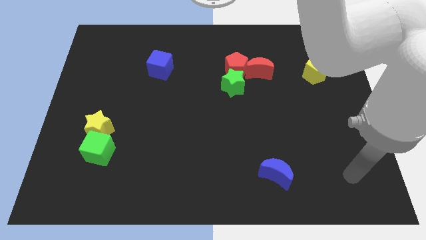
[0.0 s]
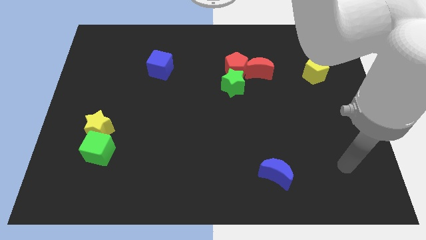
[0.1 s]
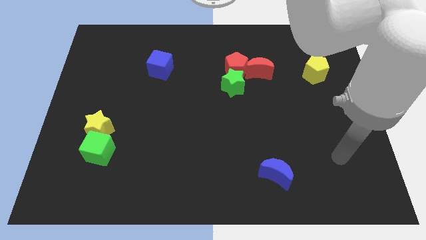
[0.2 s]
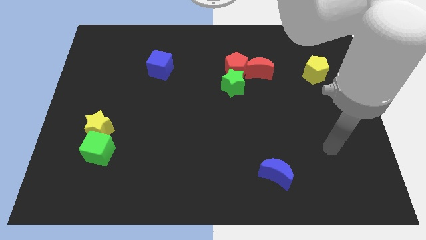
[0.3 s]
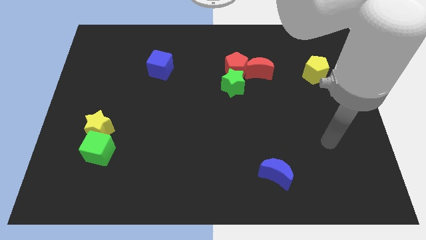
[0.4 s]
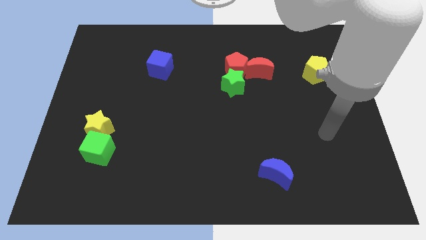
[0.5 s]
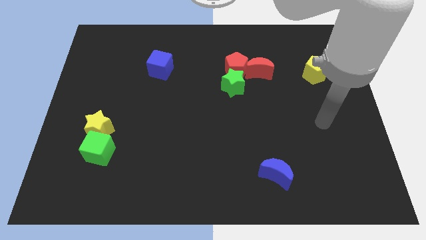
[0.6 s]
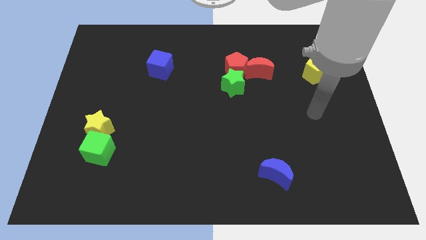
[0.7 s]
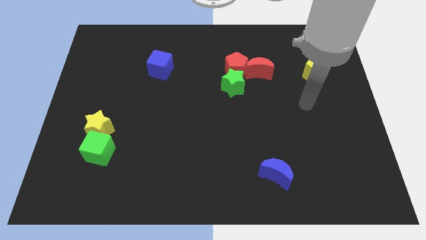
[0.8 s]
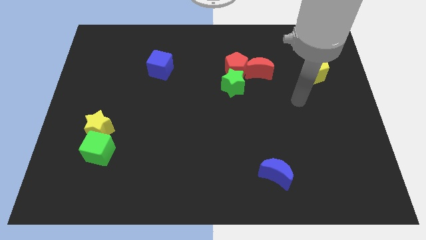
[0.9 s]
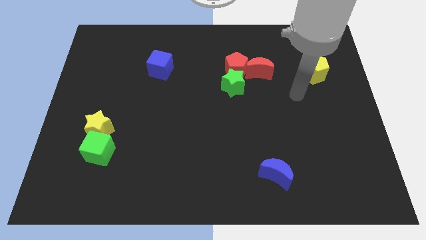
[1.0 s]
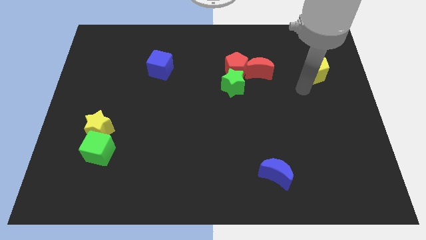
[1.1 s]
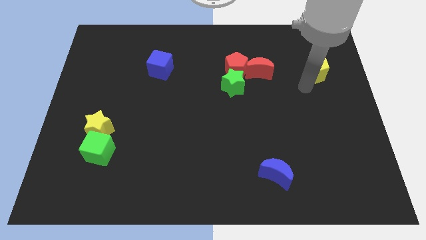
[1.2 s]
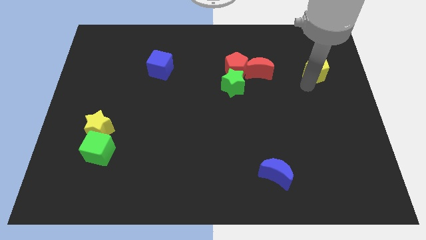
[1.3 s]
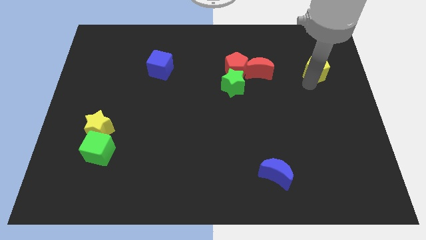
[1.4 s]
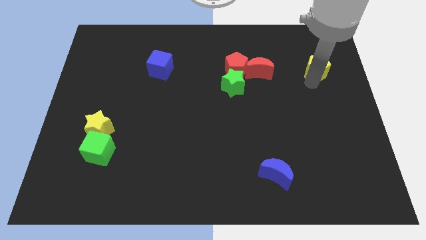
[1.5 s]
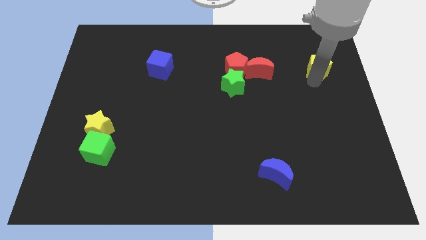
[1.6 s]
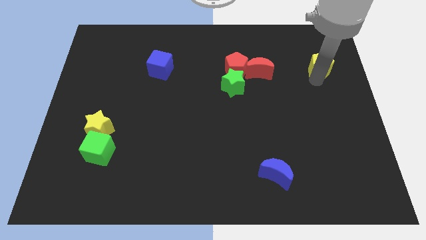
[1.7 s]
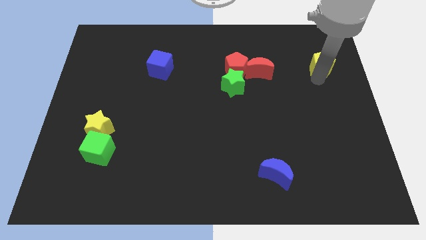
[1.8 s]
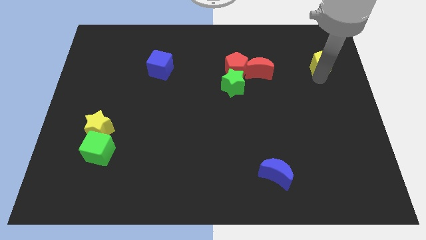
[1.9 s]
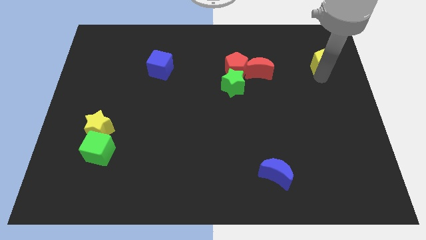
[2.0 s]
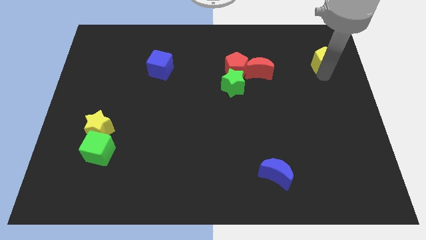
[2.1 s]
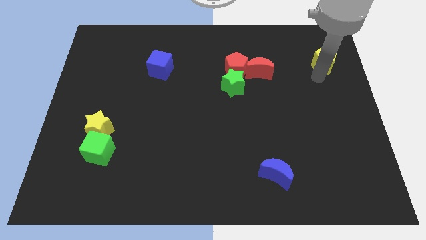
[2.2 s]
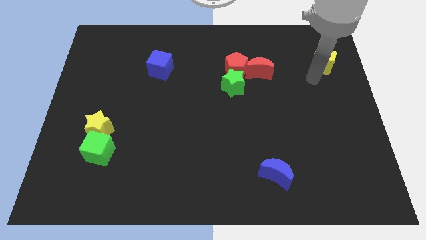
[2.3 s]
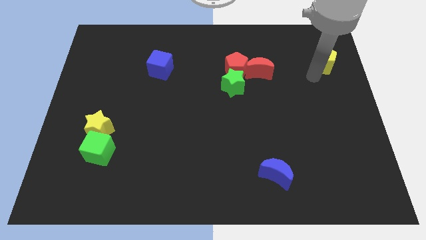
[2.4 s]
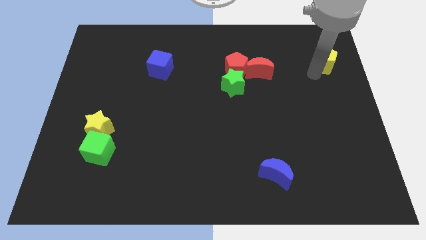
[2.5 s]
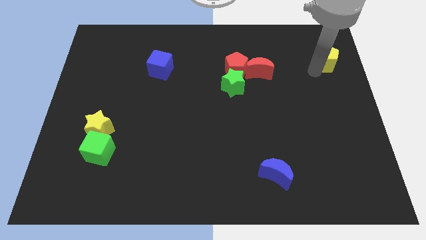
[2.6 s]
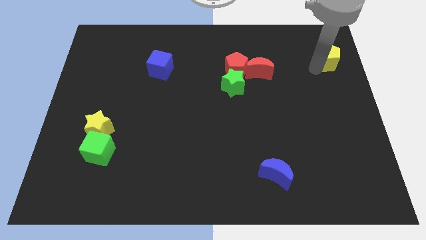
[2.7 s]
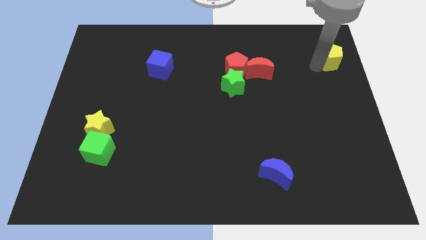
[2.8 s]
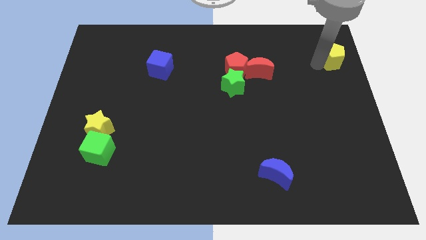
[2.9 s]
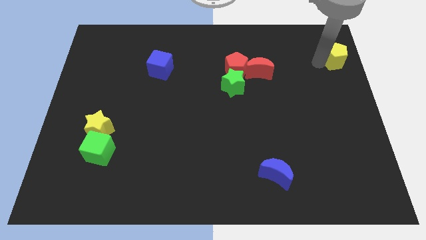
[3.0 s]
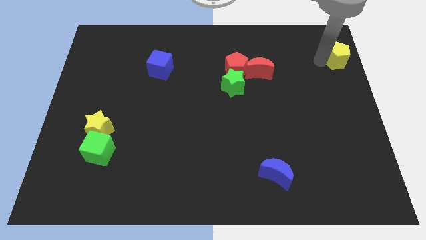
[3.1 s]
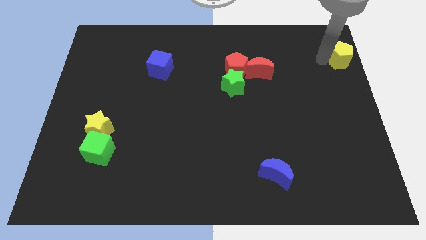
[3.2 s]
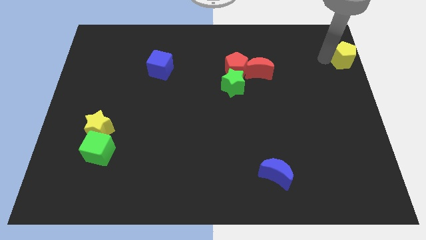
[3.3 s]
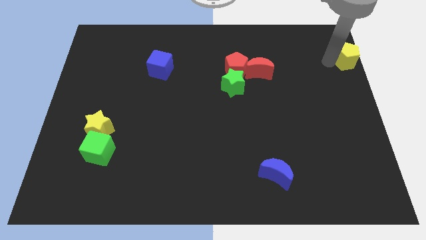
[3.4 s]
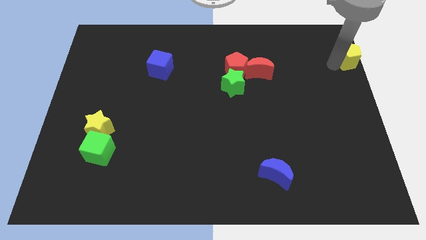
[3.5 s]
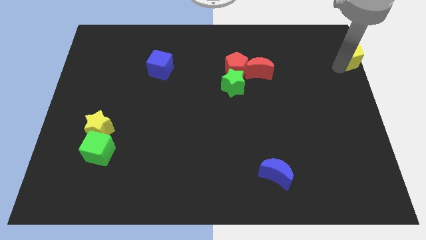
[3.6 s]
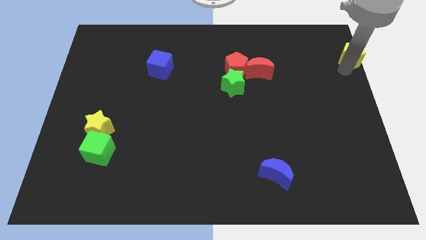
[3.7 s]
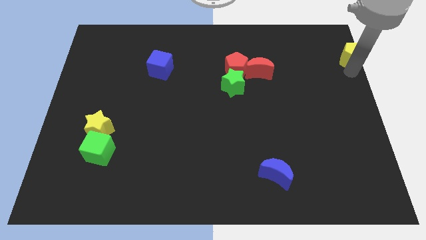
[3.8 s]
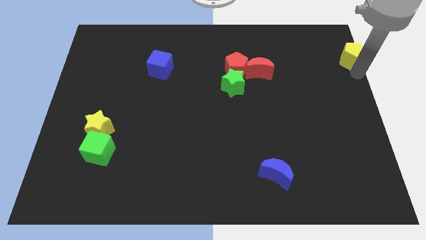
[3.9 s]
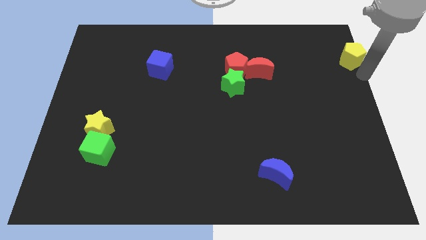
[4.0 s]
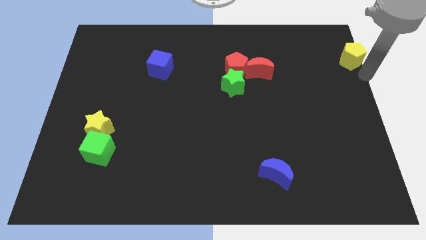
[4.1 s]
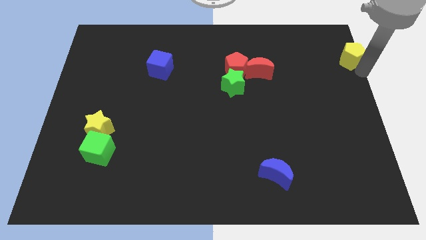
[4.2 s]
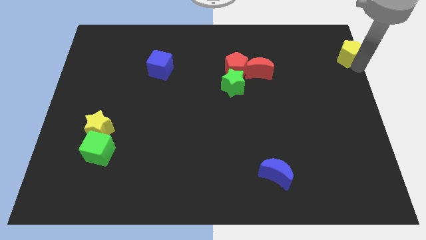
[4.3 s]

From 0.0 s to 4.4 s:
push the yellow pentagon to the top right of the board

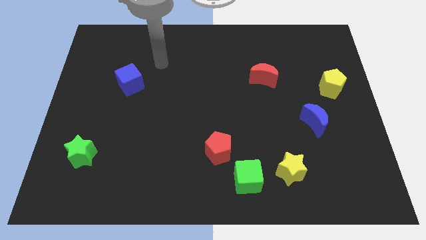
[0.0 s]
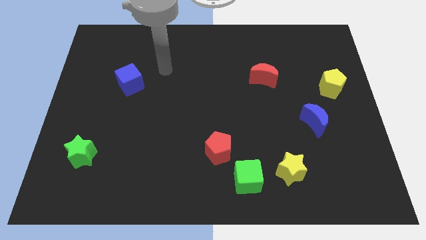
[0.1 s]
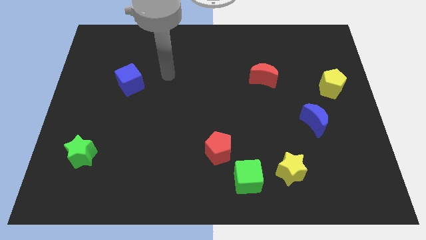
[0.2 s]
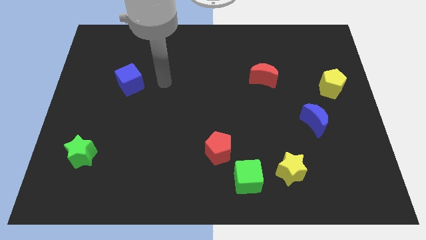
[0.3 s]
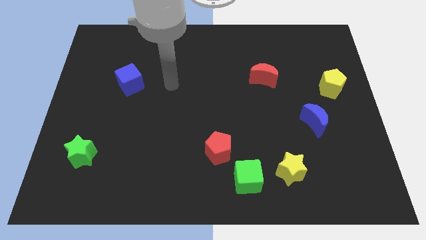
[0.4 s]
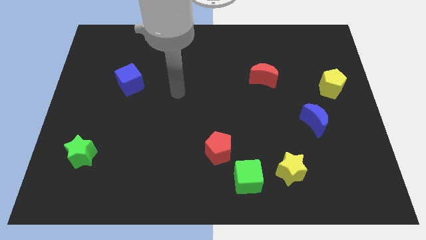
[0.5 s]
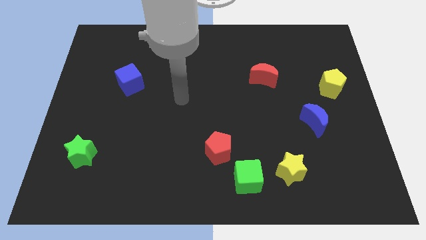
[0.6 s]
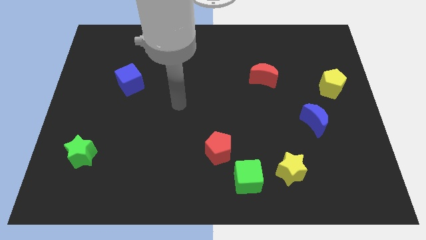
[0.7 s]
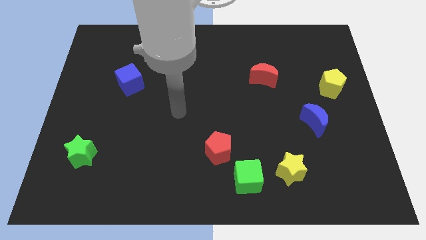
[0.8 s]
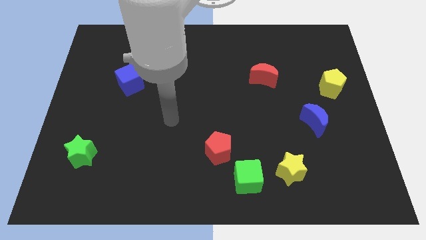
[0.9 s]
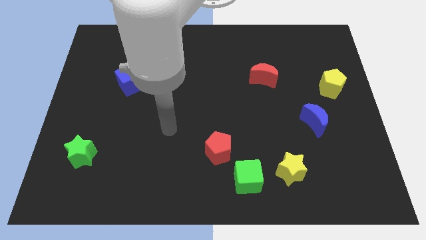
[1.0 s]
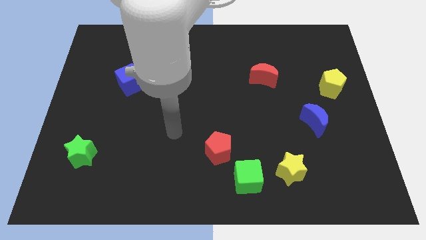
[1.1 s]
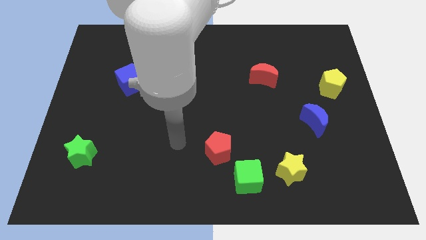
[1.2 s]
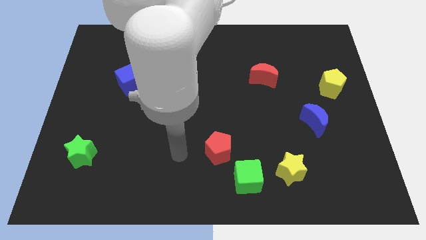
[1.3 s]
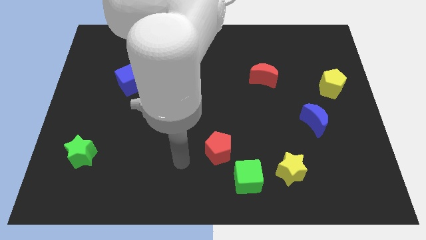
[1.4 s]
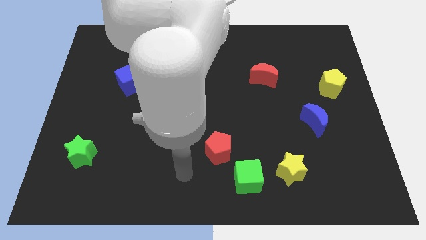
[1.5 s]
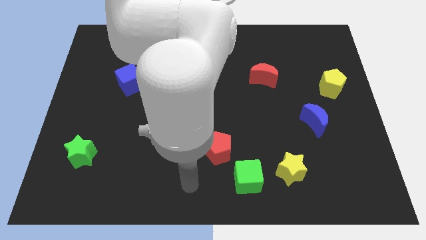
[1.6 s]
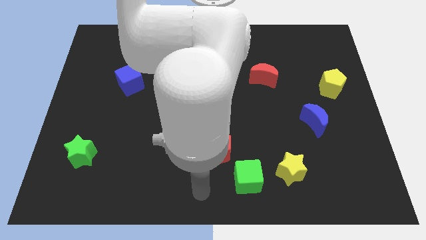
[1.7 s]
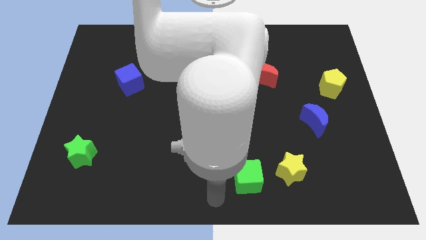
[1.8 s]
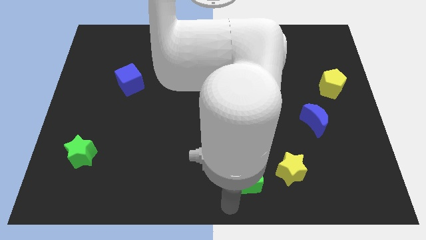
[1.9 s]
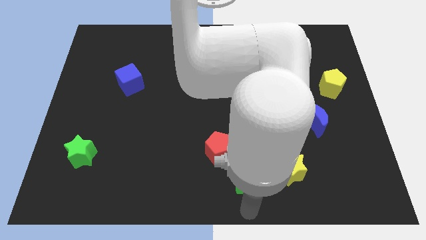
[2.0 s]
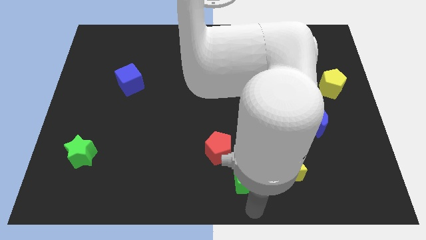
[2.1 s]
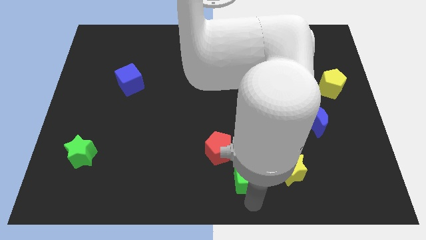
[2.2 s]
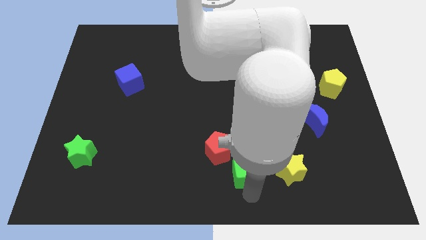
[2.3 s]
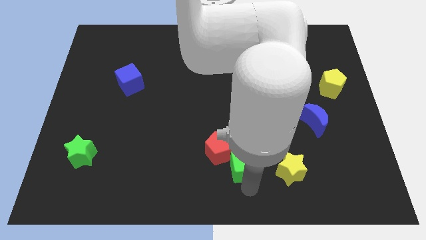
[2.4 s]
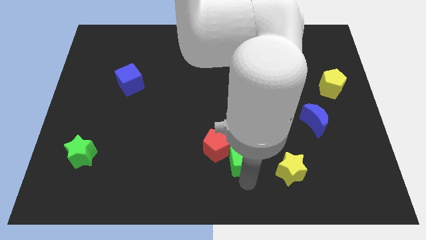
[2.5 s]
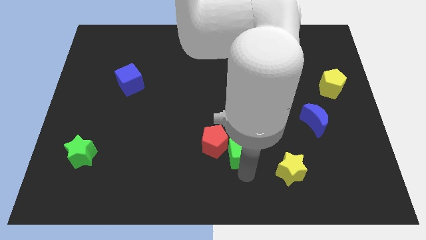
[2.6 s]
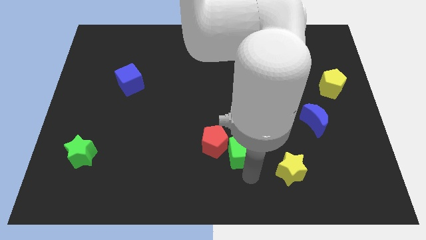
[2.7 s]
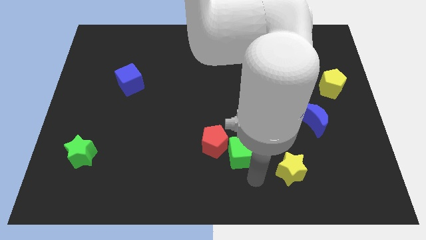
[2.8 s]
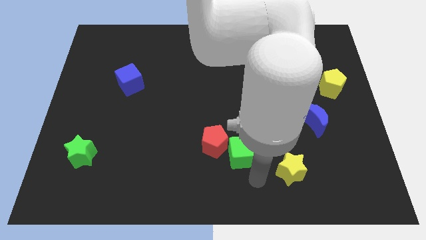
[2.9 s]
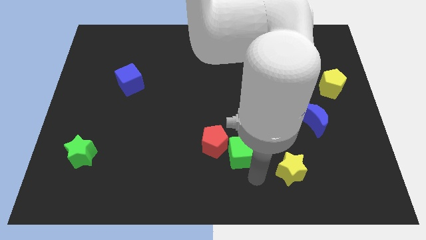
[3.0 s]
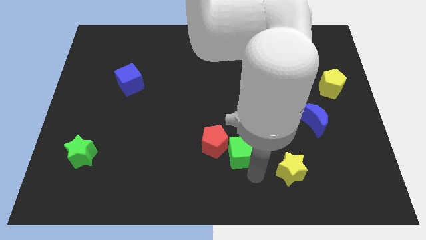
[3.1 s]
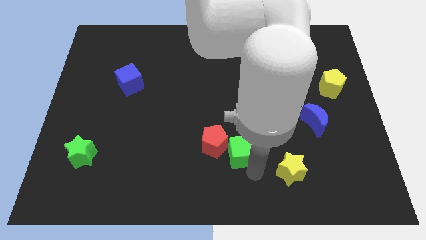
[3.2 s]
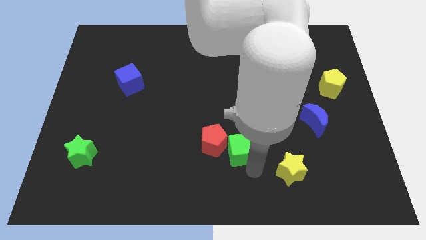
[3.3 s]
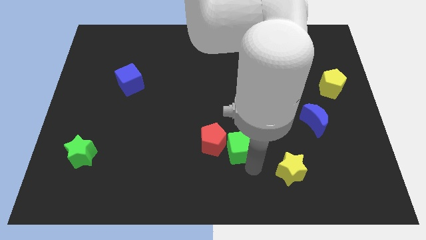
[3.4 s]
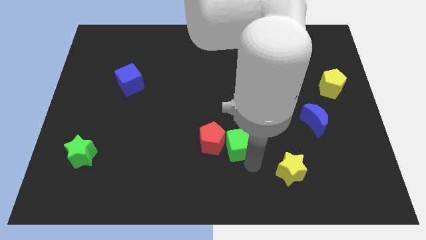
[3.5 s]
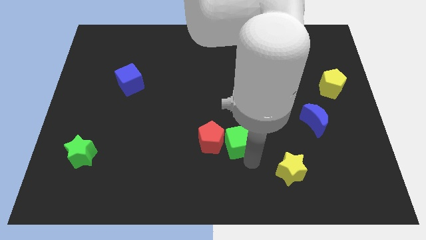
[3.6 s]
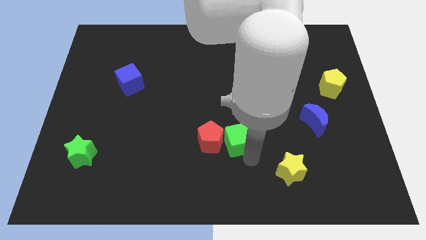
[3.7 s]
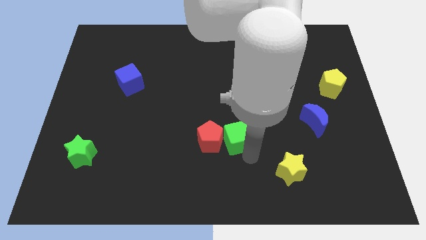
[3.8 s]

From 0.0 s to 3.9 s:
push the green cube to the middle
